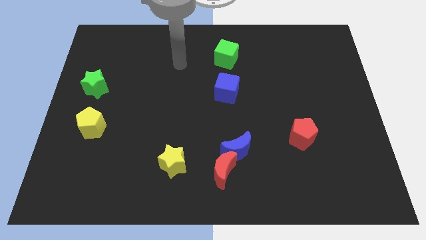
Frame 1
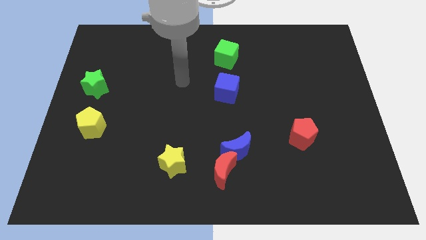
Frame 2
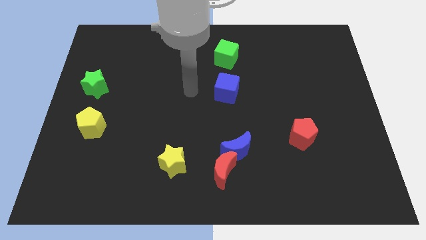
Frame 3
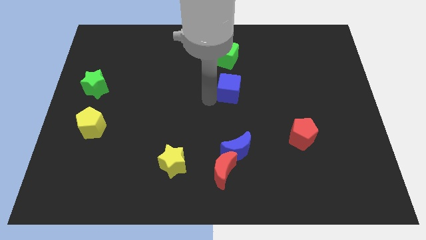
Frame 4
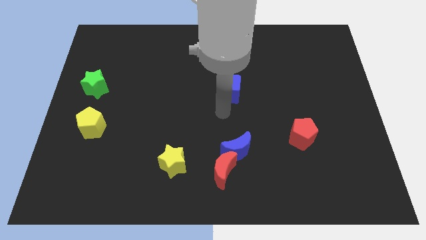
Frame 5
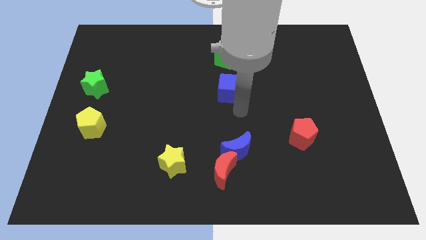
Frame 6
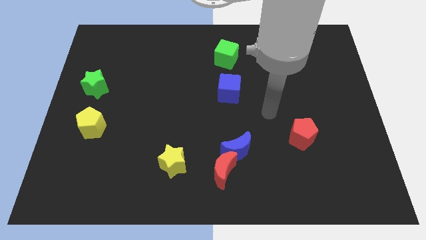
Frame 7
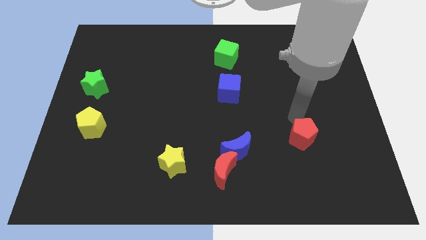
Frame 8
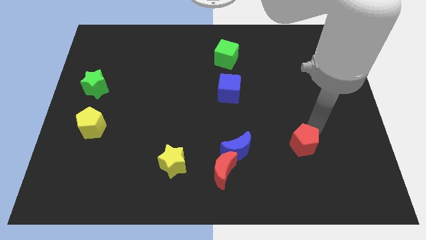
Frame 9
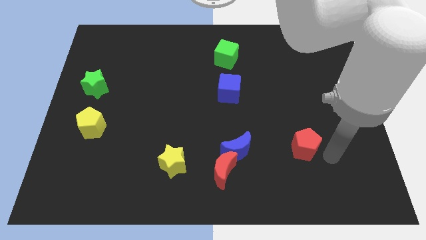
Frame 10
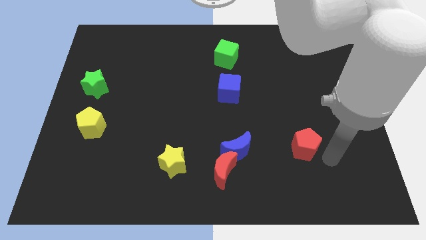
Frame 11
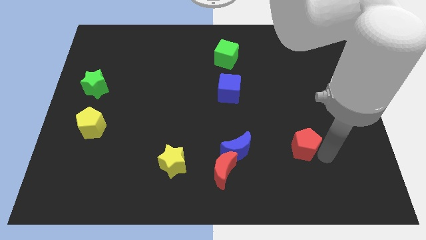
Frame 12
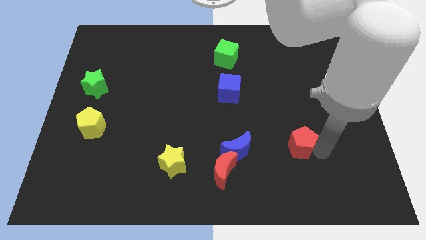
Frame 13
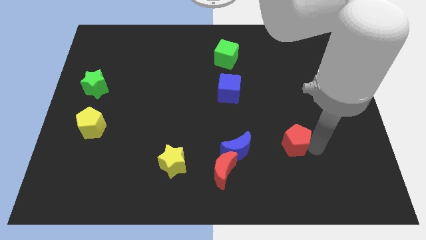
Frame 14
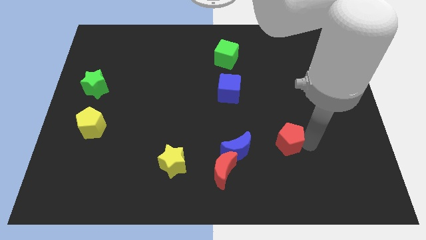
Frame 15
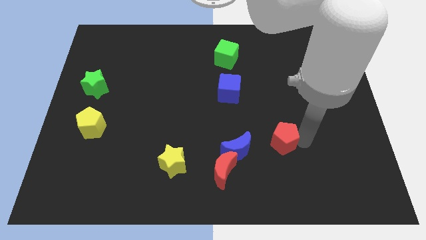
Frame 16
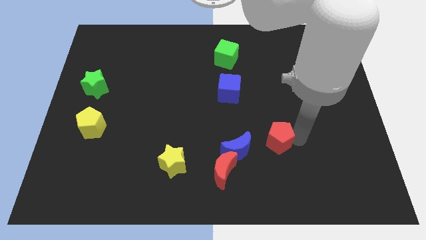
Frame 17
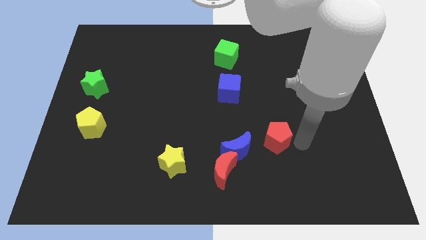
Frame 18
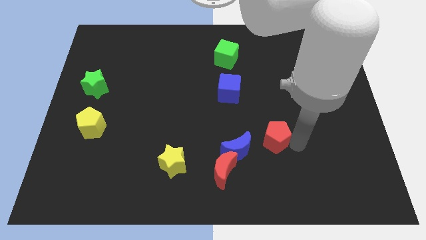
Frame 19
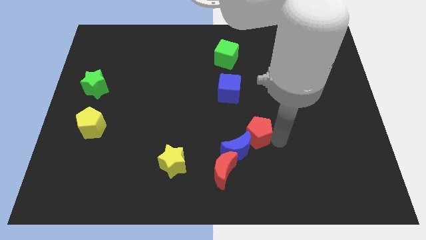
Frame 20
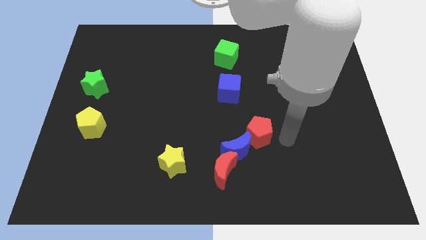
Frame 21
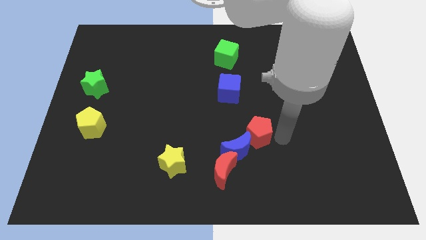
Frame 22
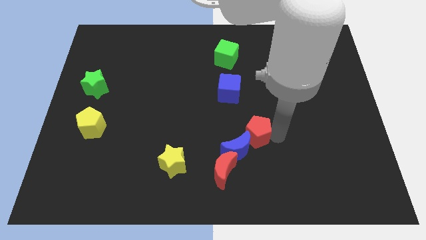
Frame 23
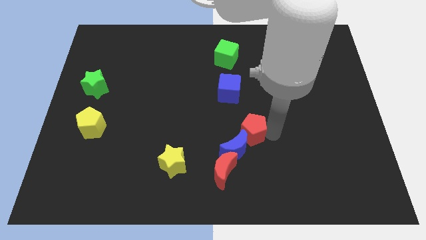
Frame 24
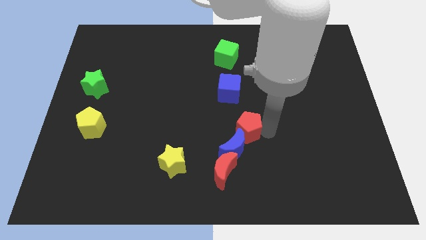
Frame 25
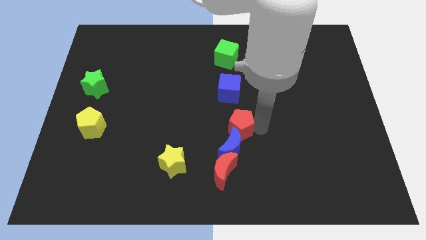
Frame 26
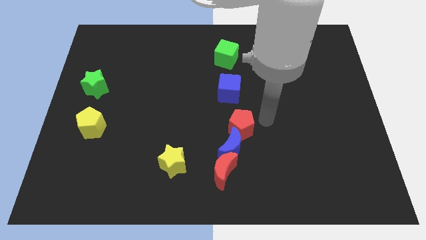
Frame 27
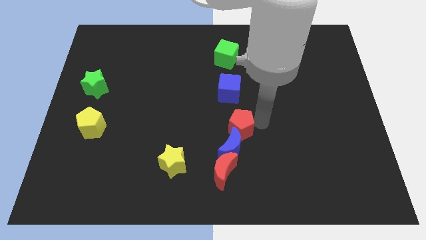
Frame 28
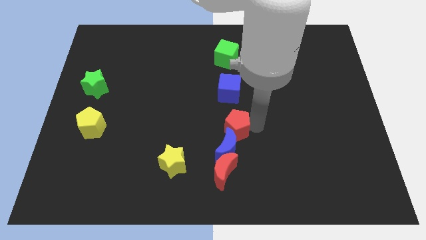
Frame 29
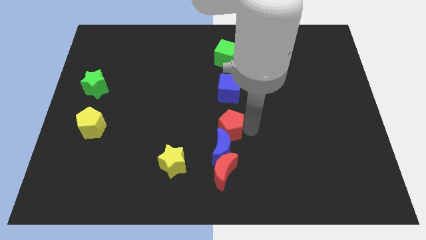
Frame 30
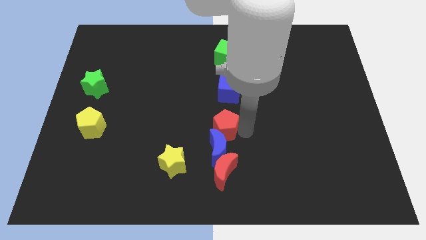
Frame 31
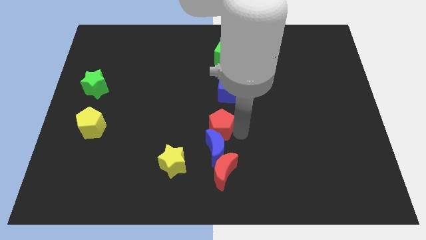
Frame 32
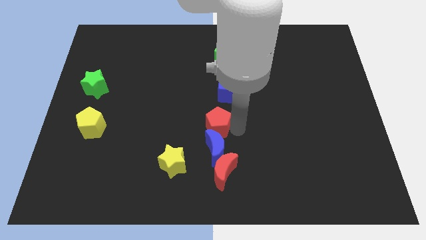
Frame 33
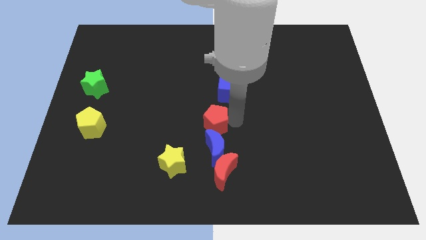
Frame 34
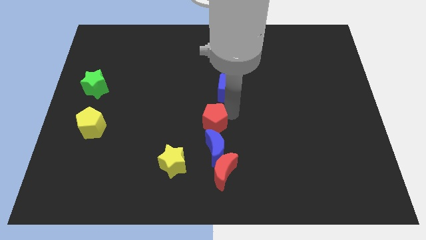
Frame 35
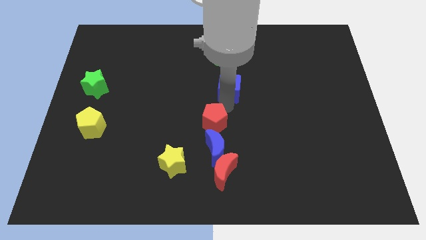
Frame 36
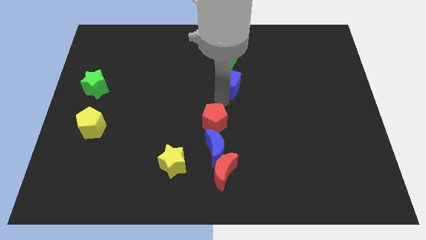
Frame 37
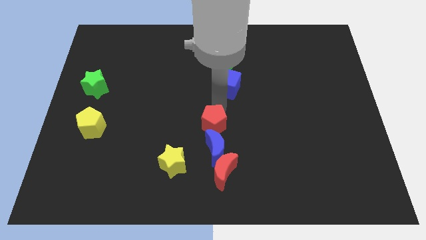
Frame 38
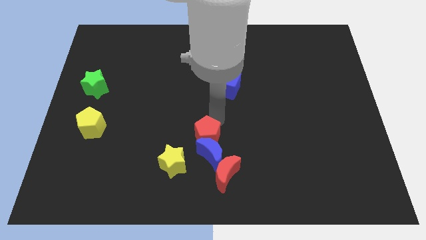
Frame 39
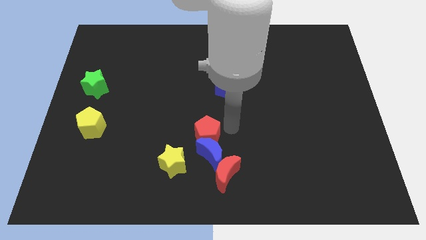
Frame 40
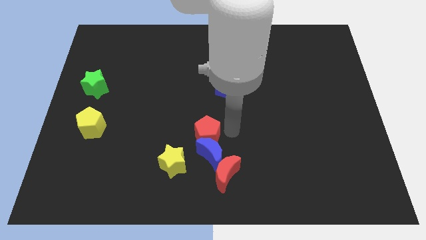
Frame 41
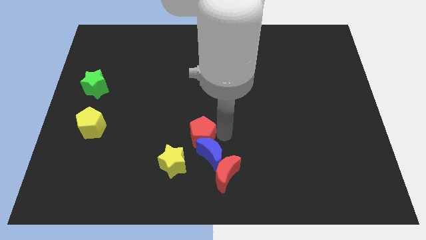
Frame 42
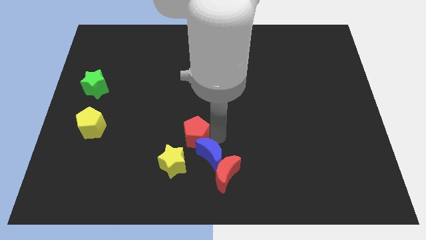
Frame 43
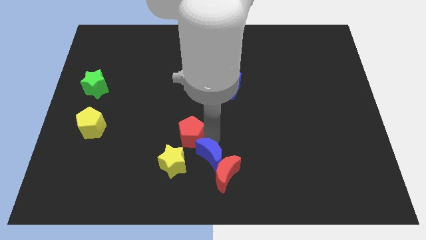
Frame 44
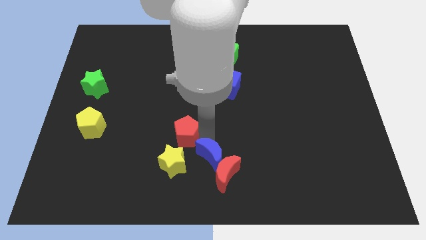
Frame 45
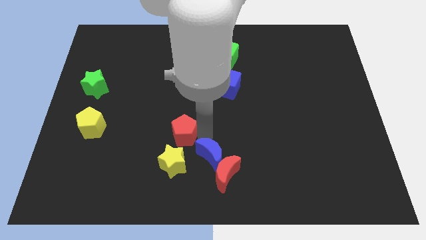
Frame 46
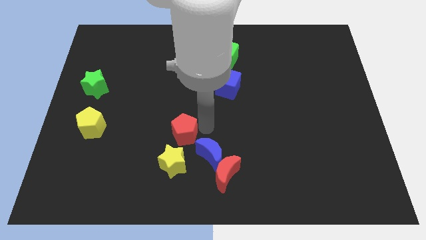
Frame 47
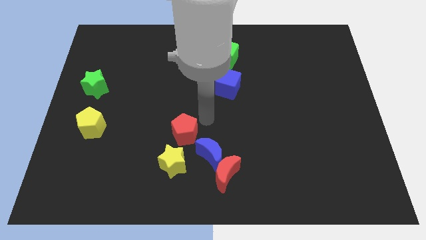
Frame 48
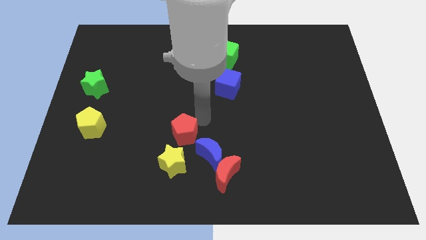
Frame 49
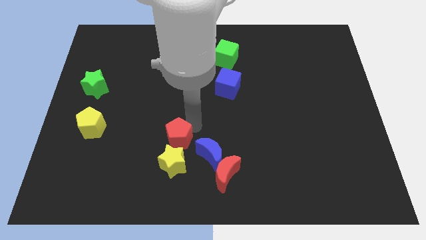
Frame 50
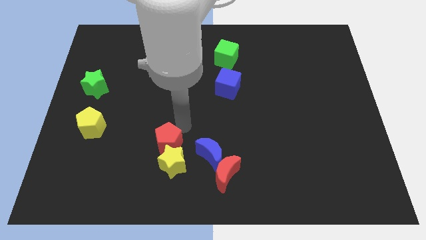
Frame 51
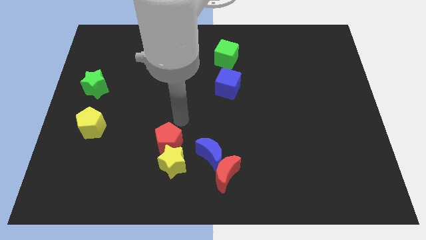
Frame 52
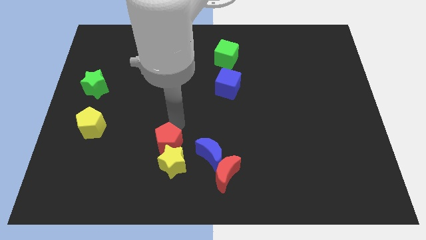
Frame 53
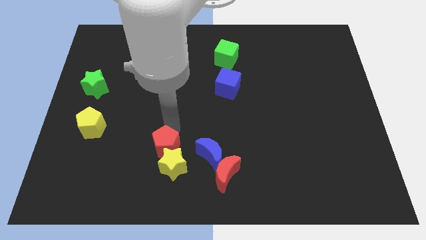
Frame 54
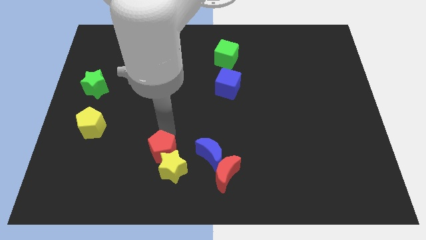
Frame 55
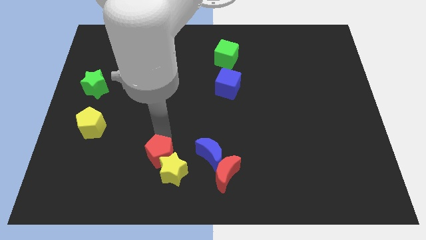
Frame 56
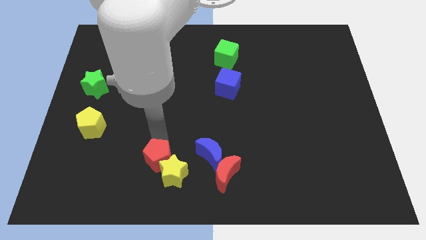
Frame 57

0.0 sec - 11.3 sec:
put the red pentagon to the left side of the red moon

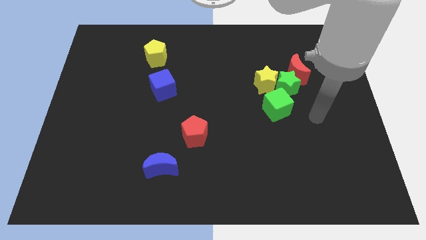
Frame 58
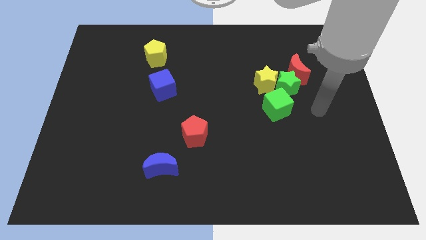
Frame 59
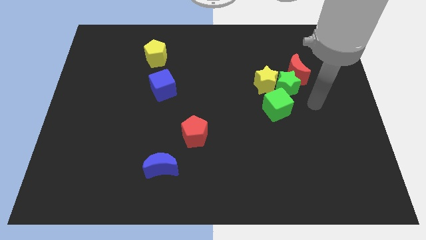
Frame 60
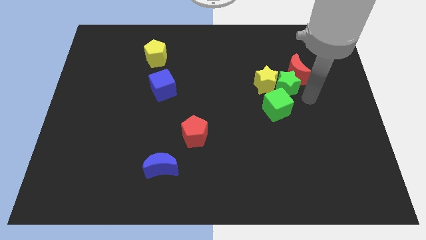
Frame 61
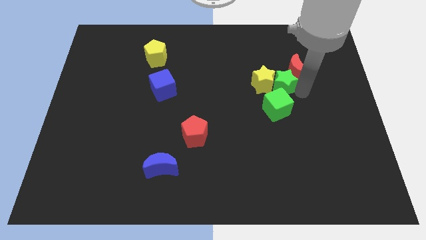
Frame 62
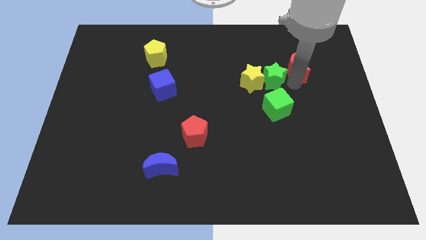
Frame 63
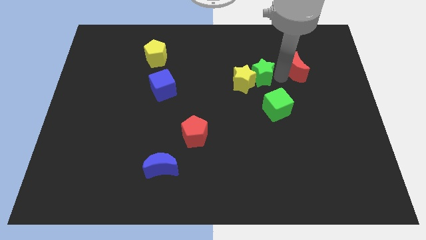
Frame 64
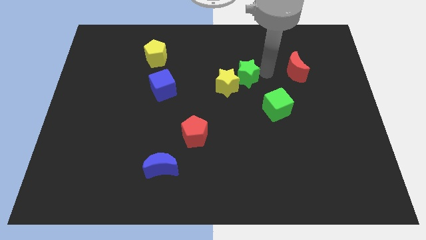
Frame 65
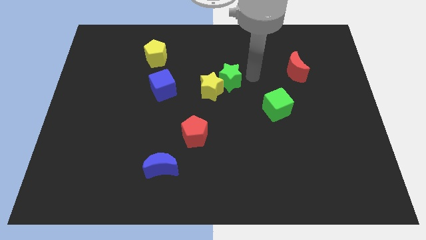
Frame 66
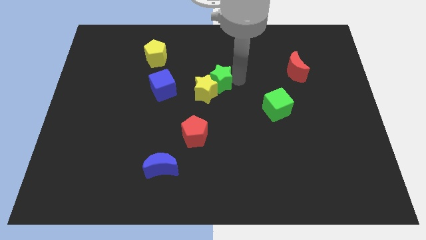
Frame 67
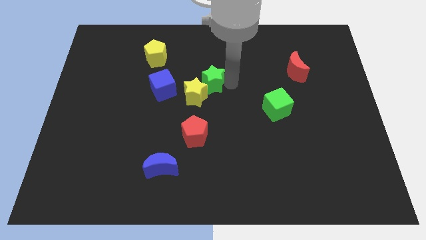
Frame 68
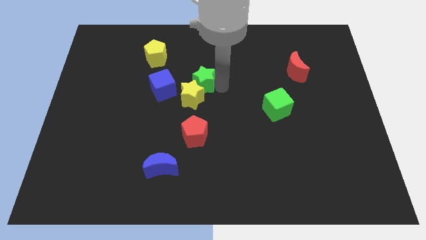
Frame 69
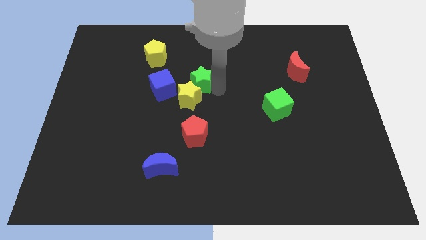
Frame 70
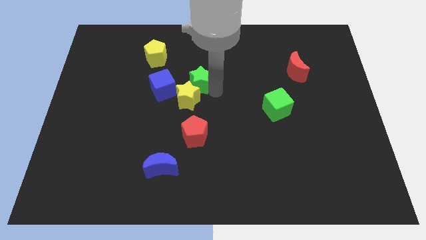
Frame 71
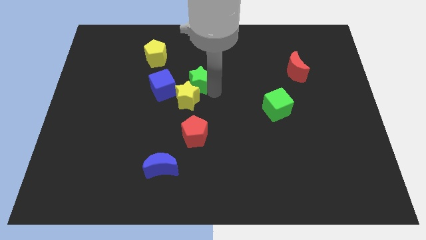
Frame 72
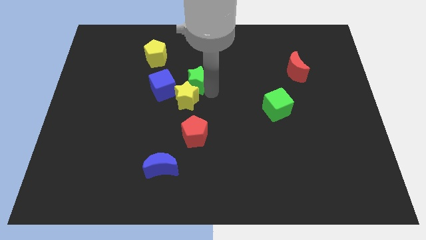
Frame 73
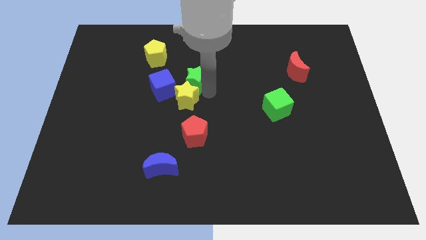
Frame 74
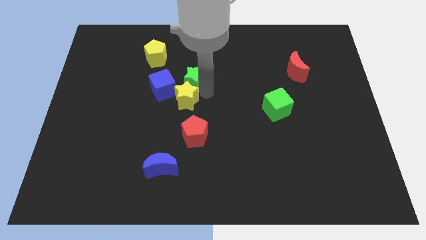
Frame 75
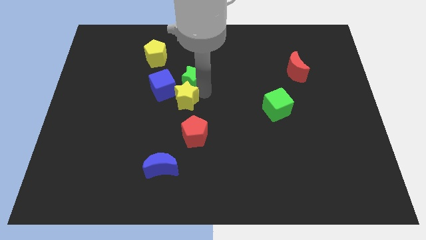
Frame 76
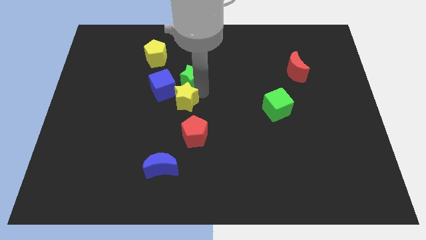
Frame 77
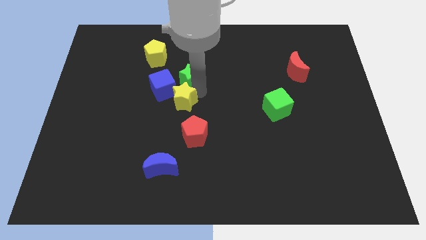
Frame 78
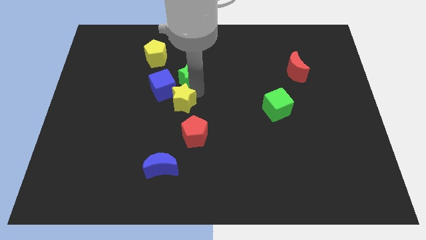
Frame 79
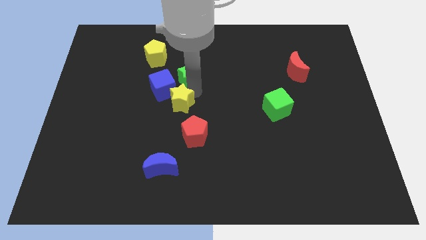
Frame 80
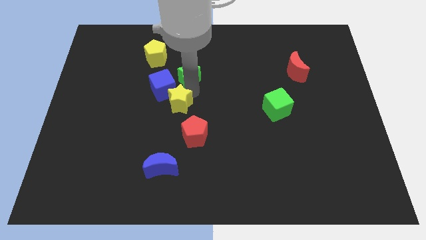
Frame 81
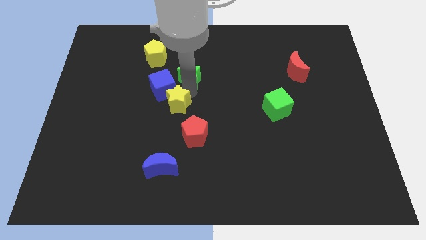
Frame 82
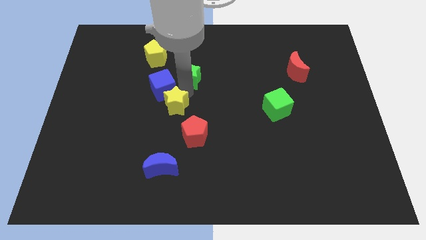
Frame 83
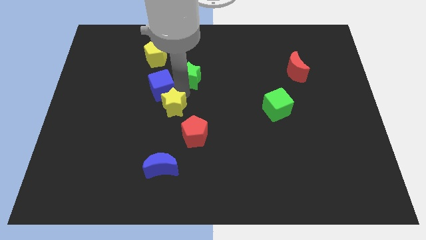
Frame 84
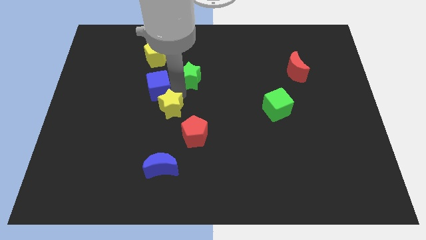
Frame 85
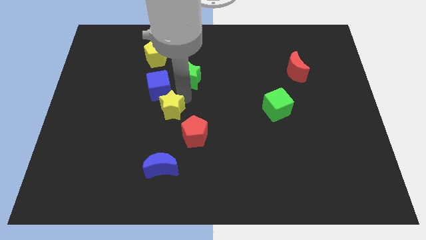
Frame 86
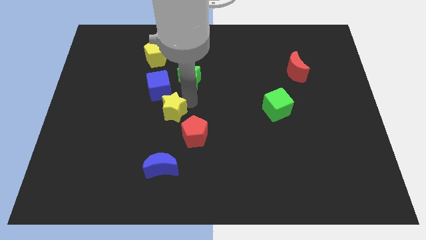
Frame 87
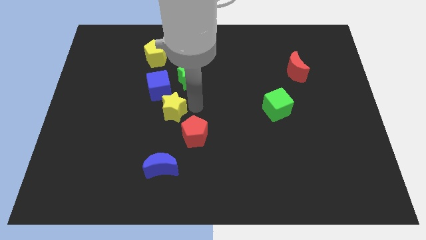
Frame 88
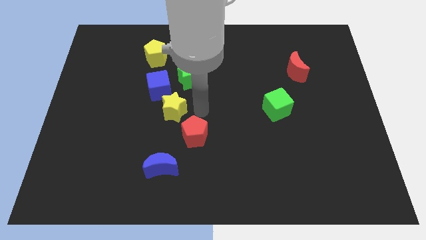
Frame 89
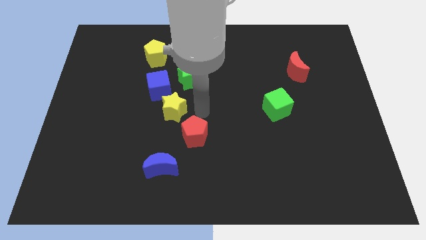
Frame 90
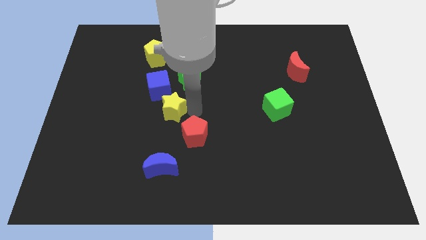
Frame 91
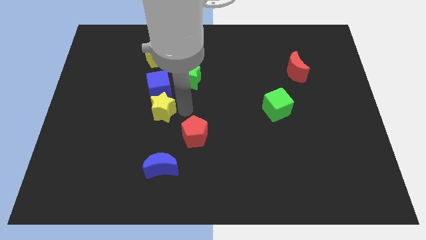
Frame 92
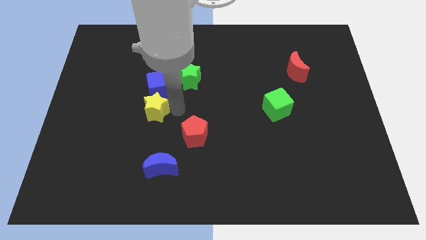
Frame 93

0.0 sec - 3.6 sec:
put the yellow star to the bottom left side of the blue cube
